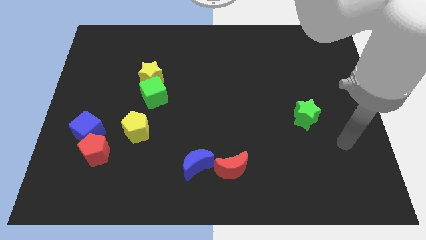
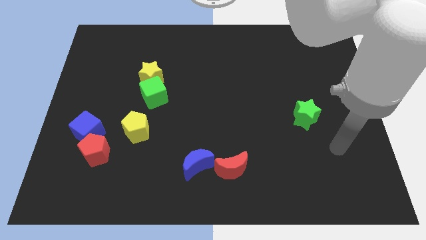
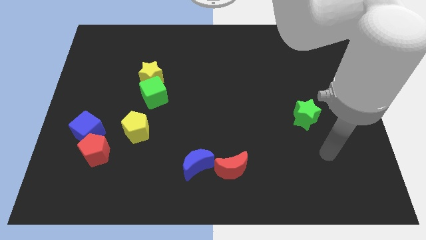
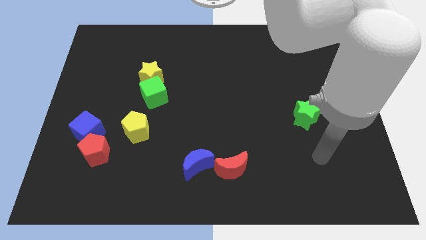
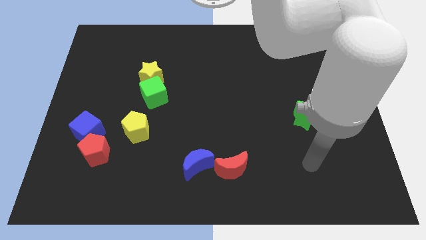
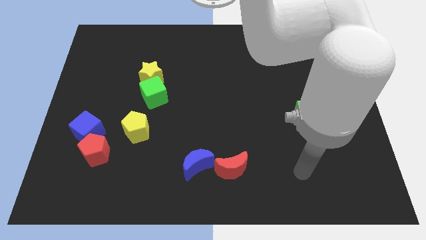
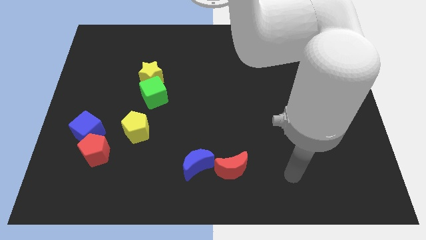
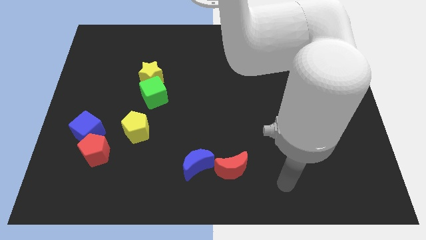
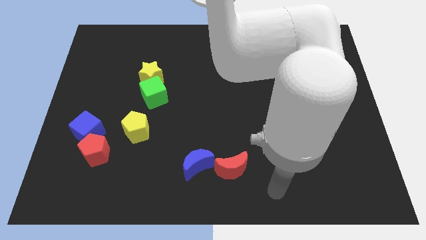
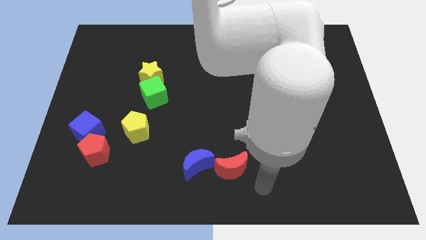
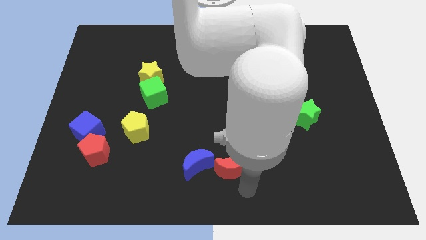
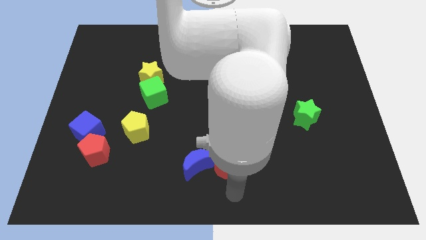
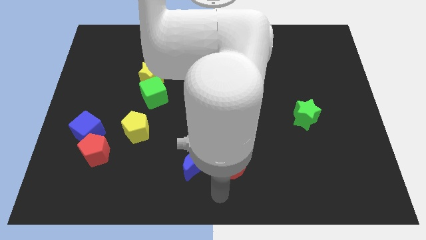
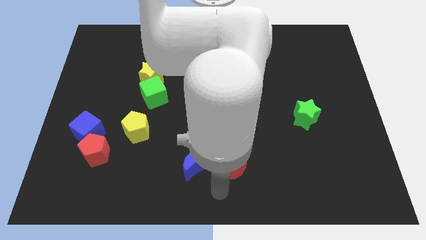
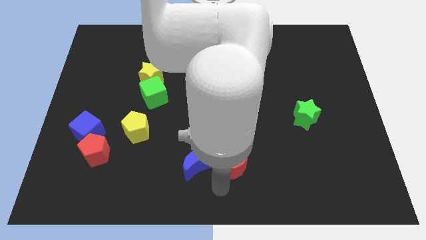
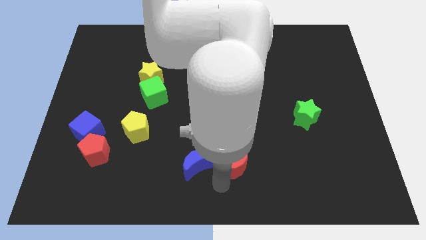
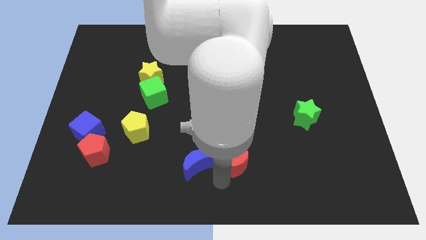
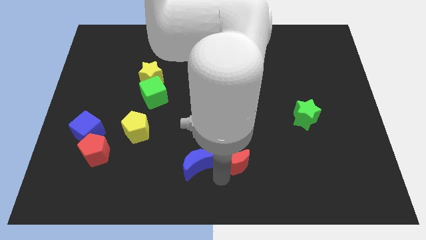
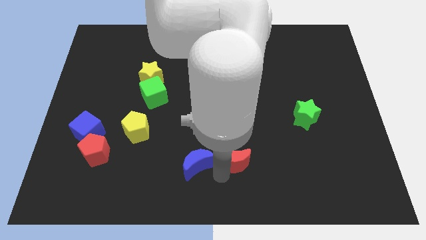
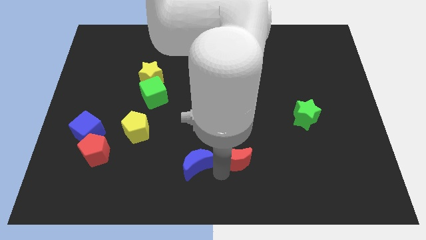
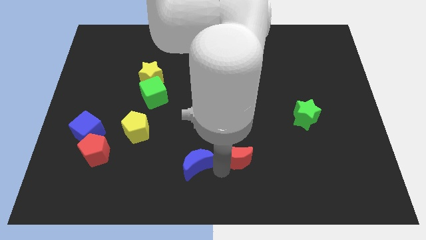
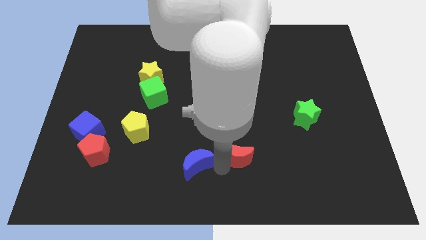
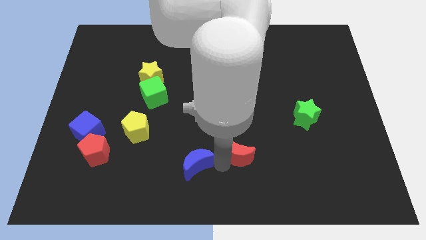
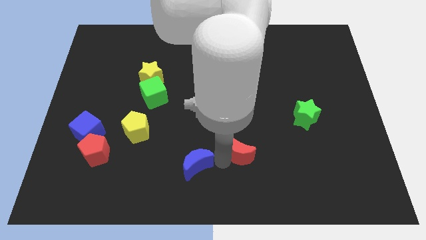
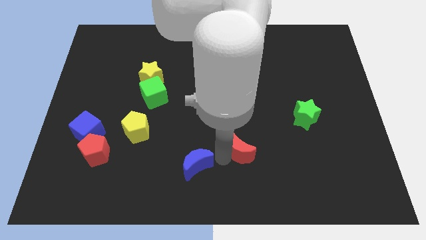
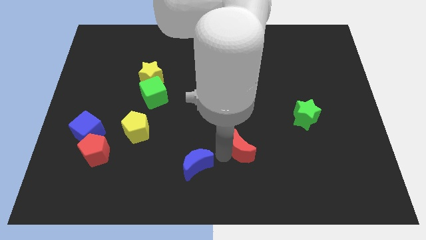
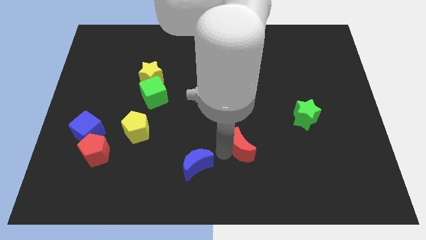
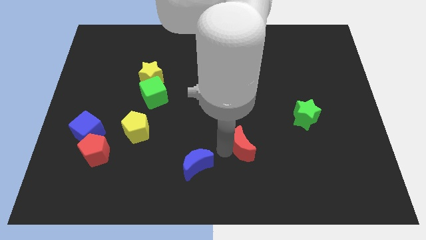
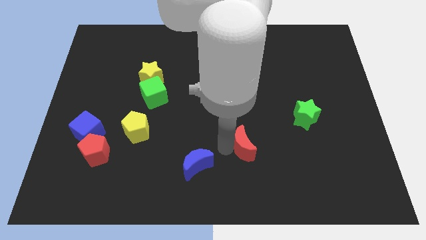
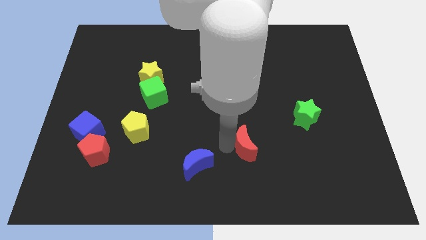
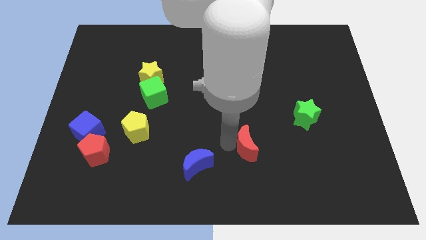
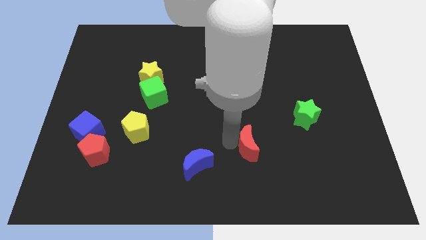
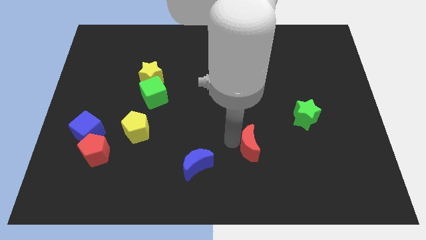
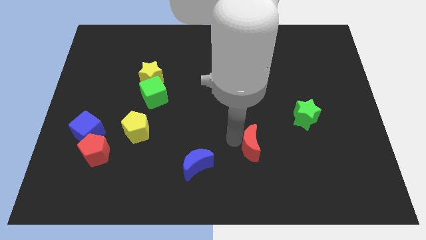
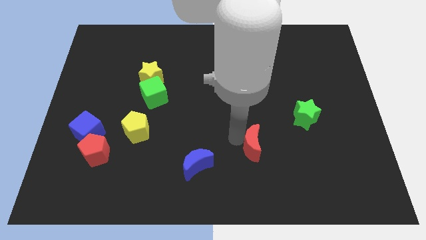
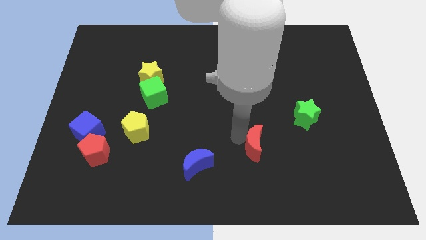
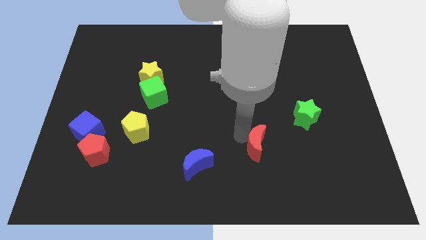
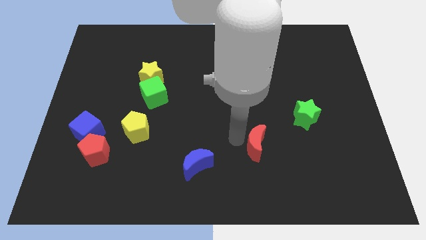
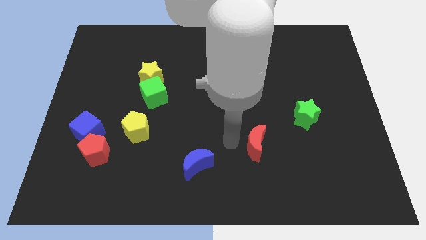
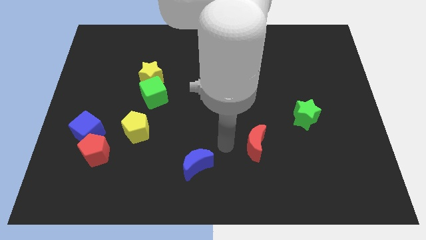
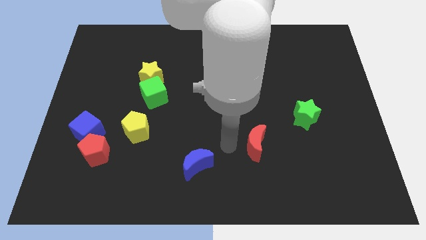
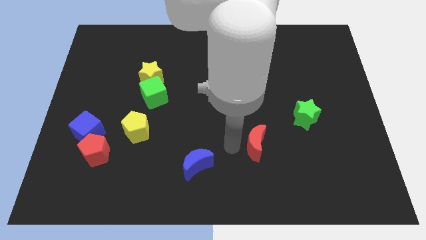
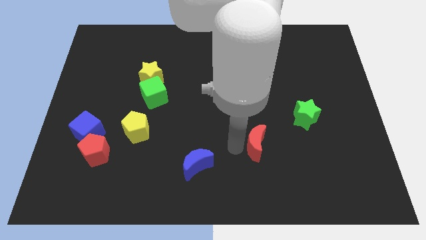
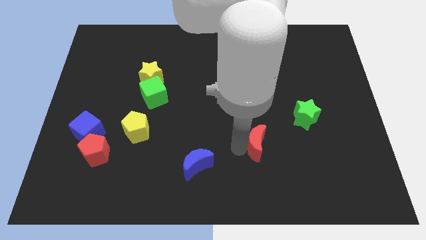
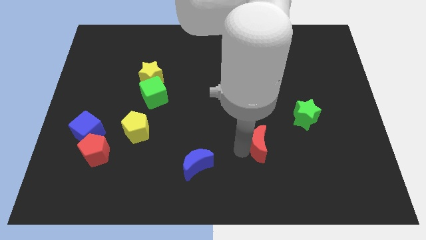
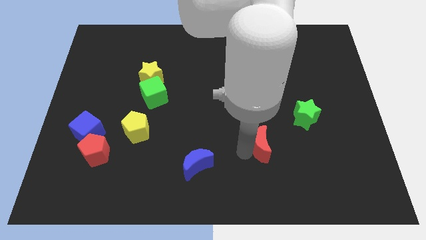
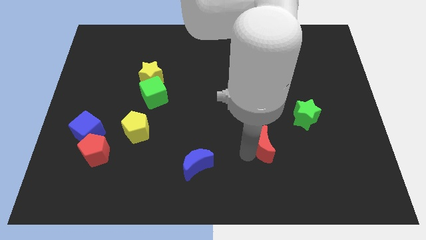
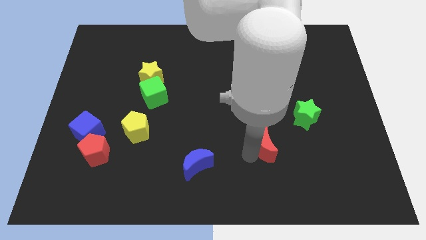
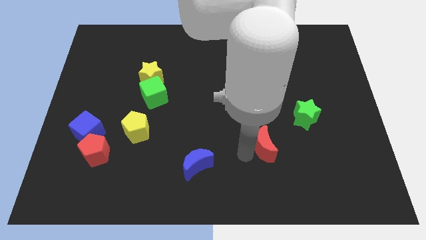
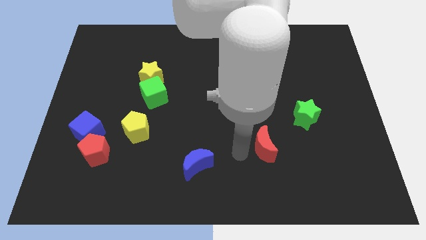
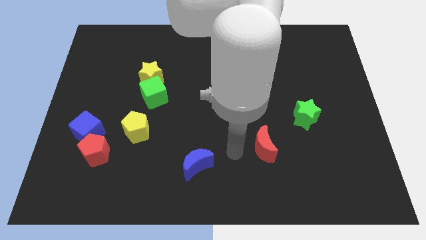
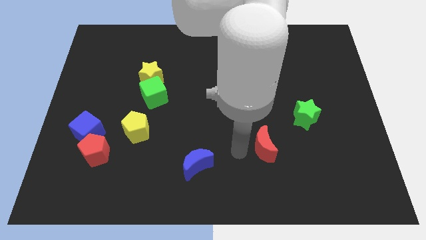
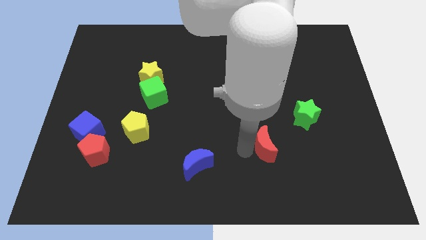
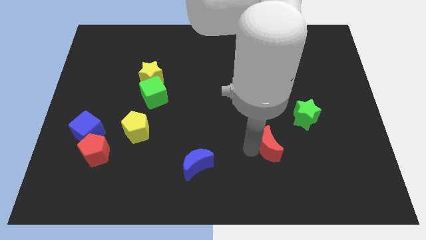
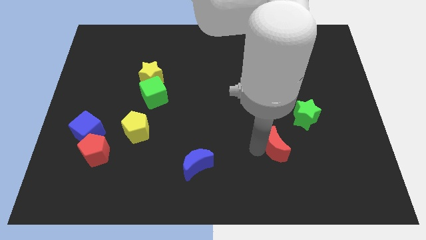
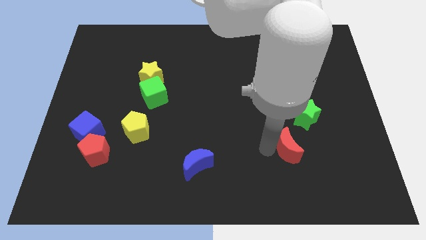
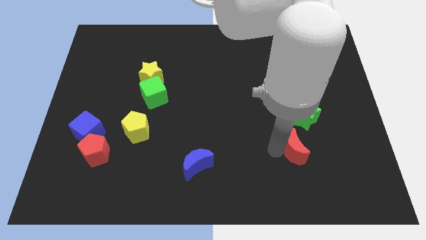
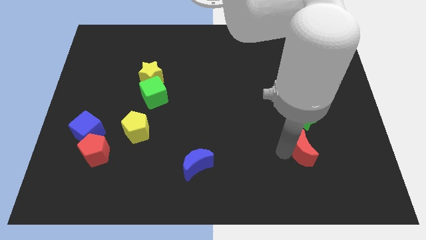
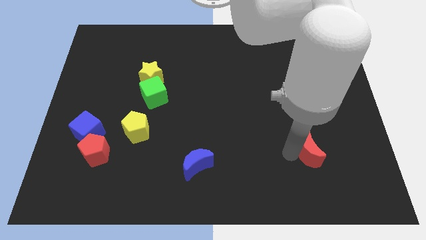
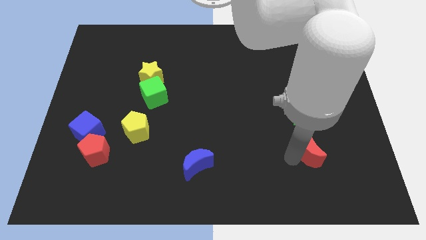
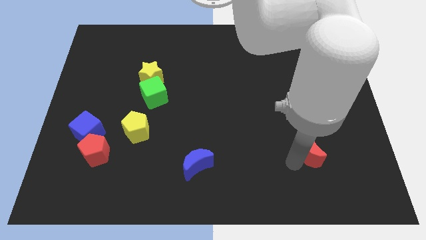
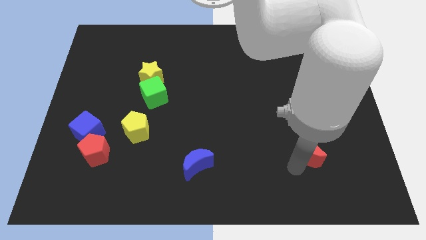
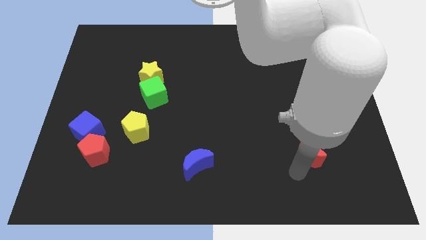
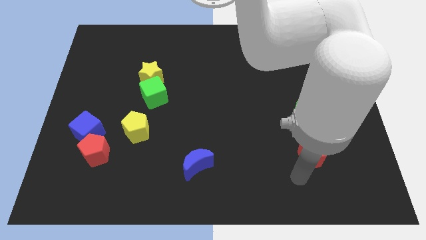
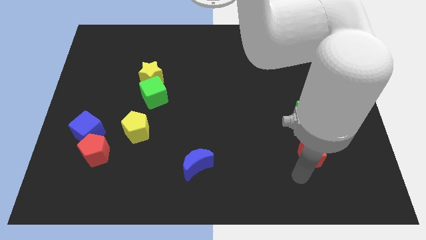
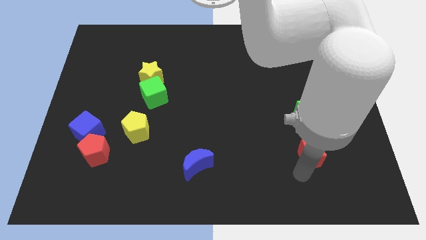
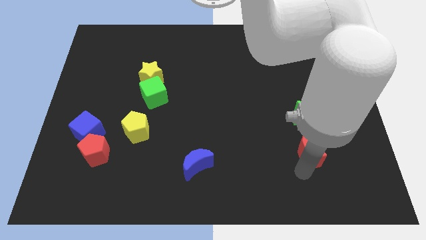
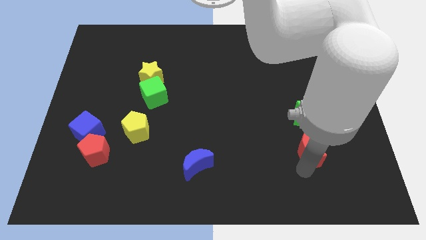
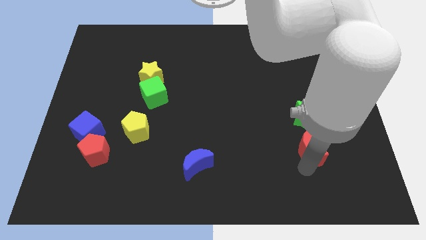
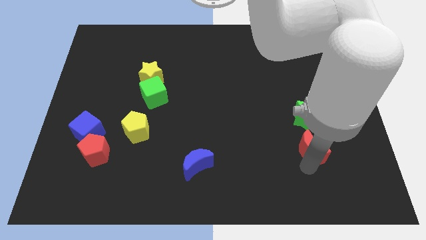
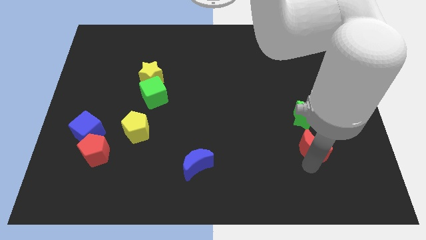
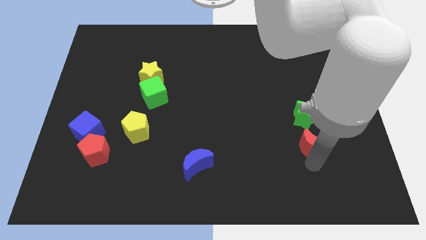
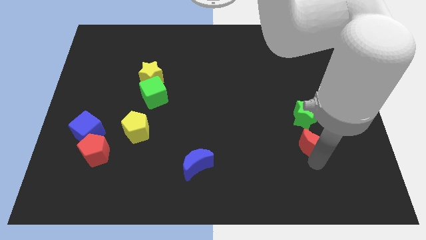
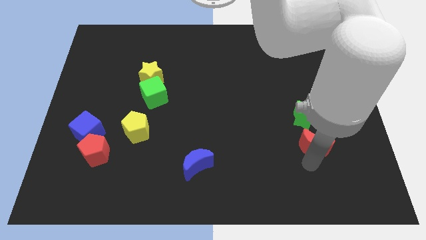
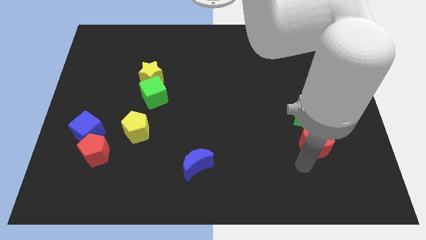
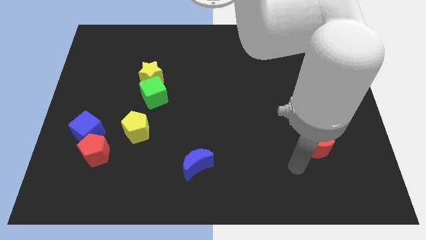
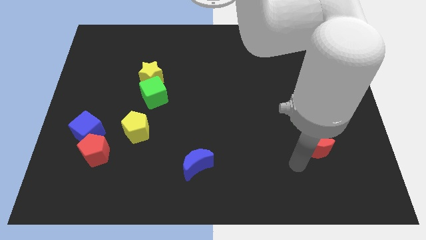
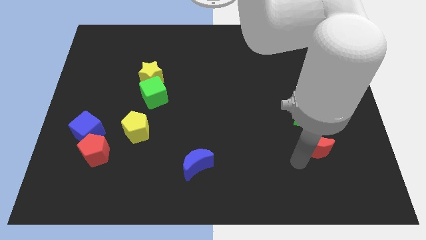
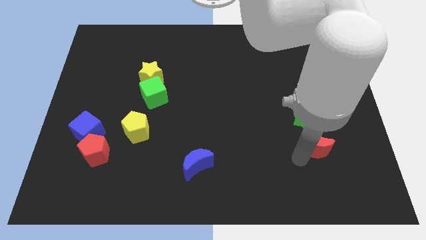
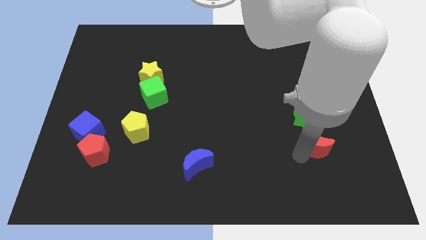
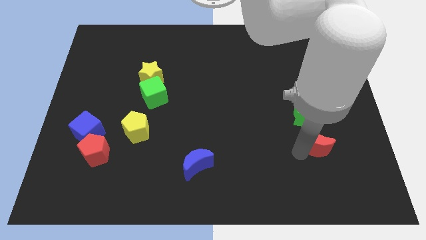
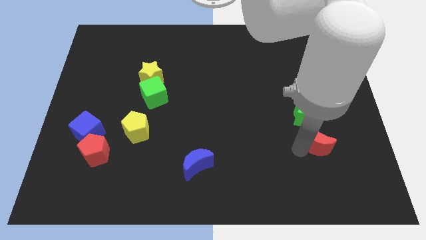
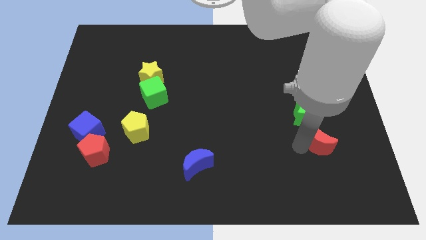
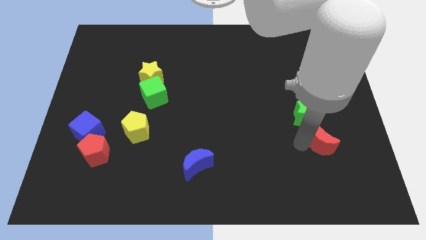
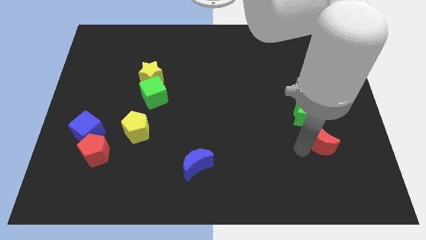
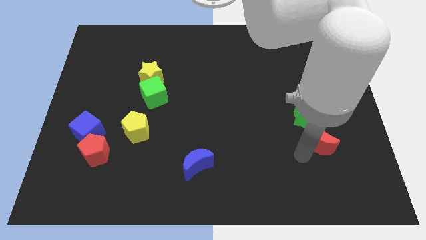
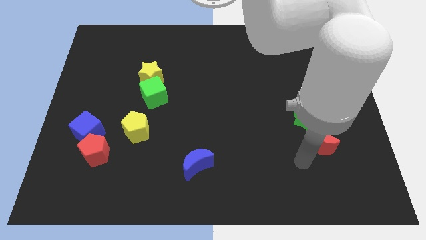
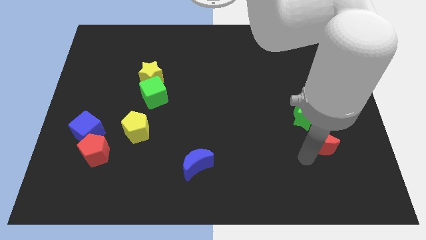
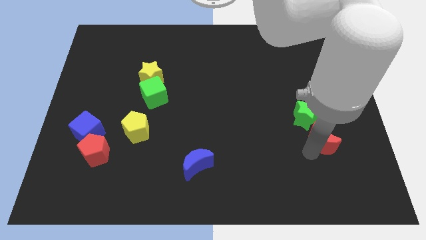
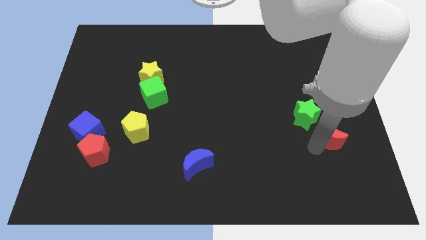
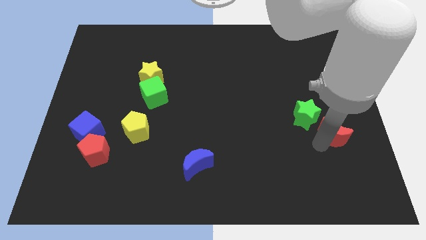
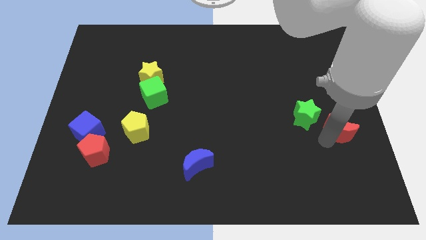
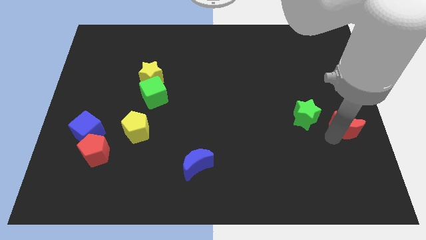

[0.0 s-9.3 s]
slide the red moon to the right side
